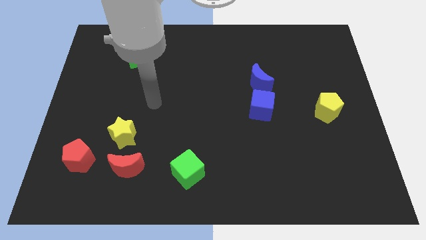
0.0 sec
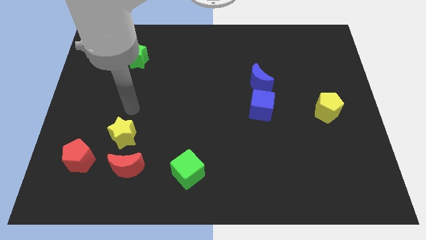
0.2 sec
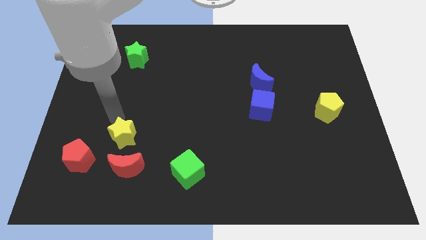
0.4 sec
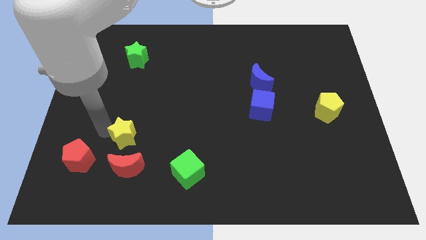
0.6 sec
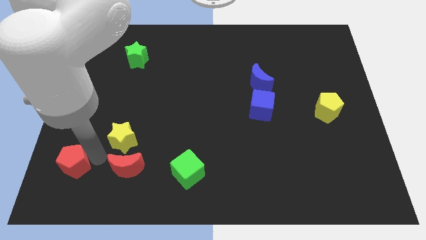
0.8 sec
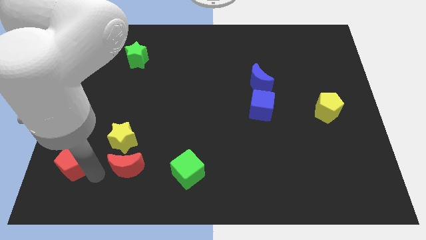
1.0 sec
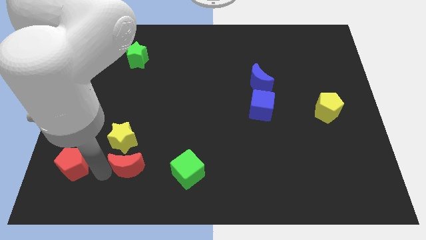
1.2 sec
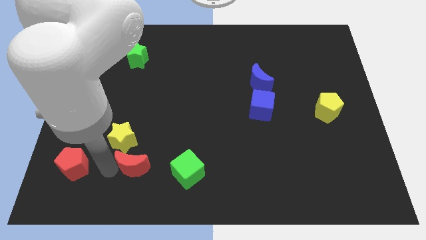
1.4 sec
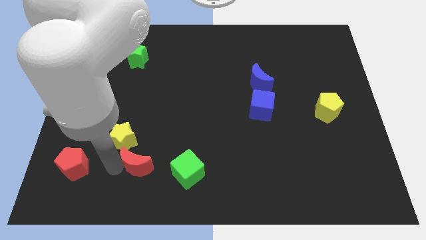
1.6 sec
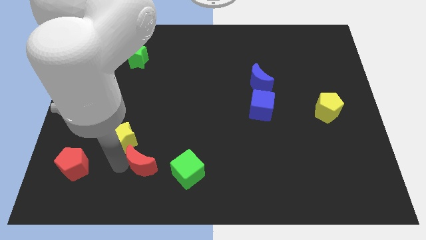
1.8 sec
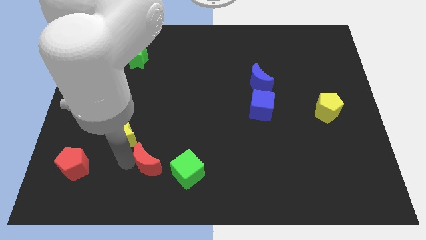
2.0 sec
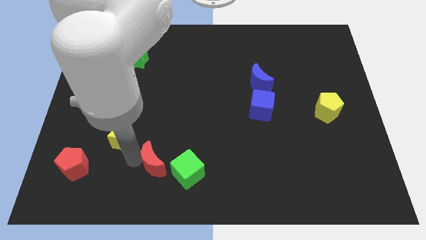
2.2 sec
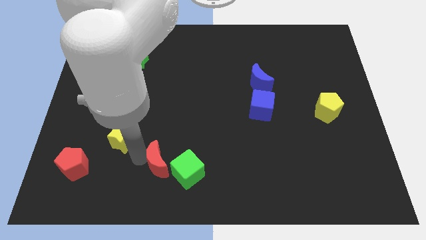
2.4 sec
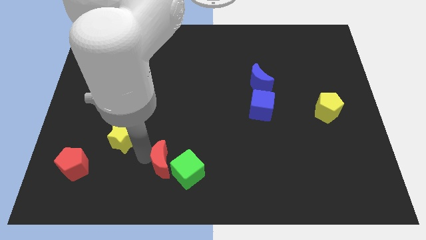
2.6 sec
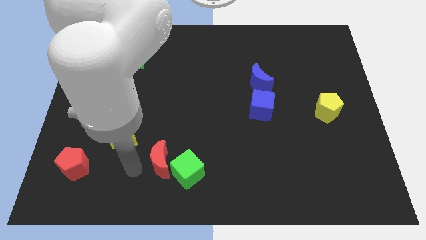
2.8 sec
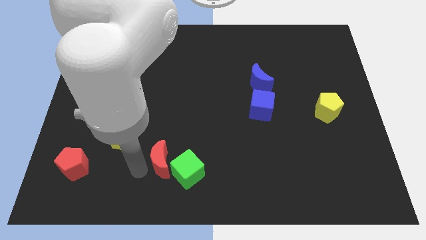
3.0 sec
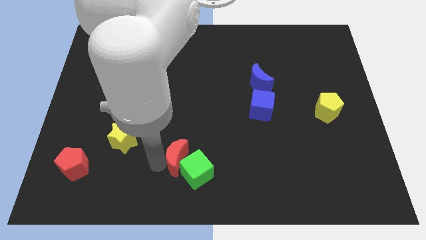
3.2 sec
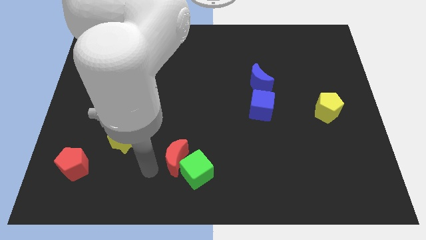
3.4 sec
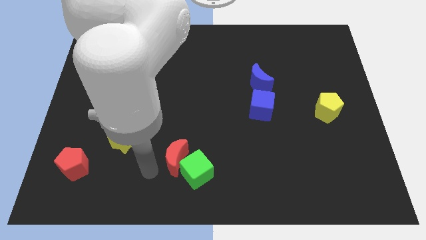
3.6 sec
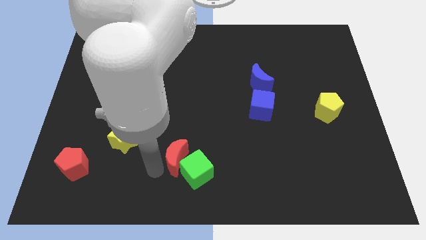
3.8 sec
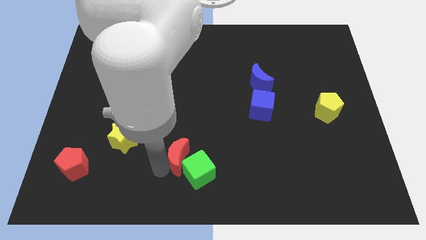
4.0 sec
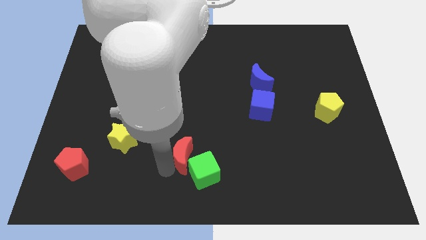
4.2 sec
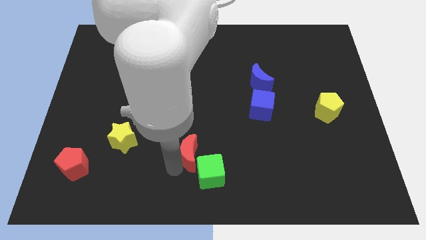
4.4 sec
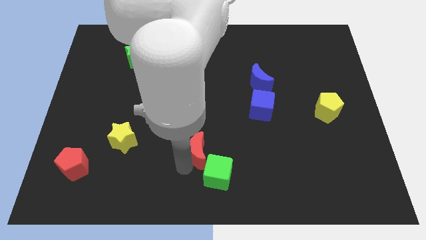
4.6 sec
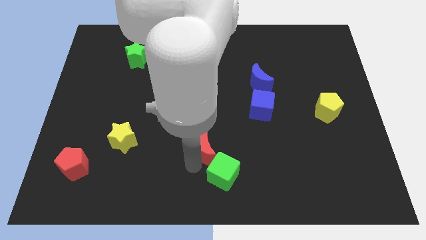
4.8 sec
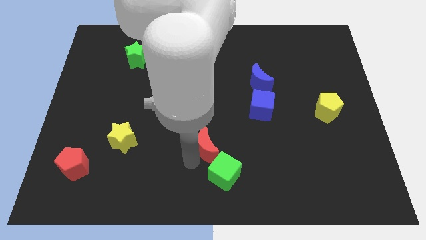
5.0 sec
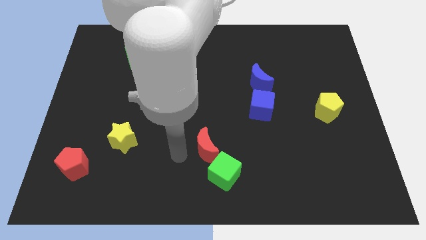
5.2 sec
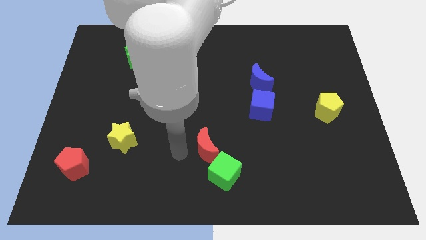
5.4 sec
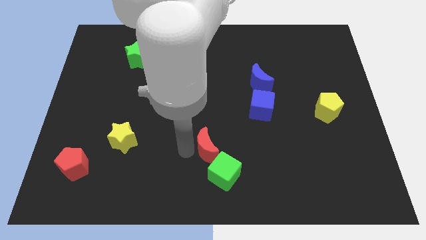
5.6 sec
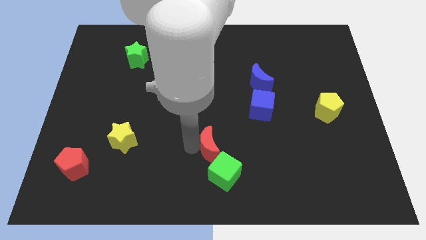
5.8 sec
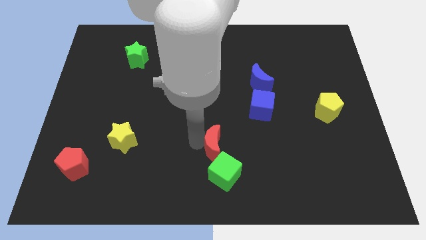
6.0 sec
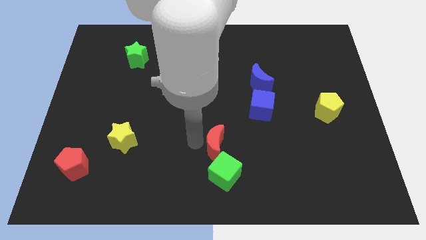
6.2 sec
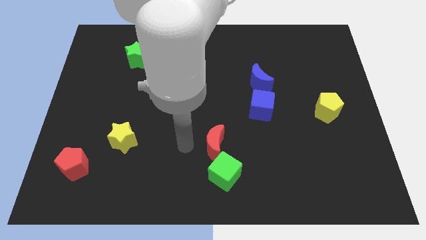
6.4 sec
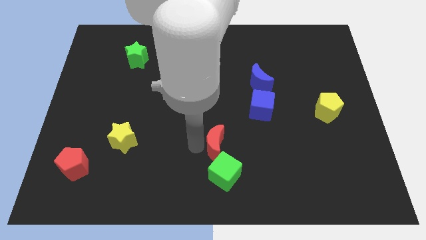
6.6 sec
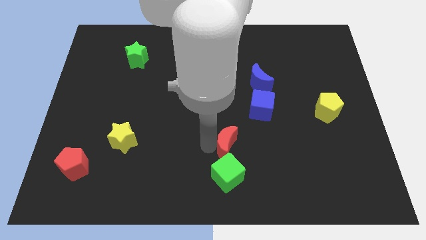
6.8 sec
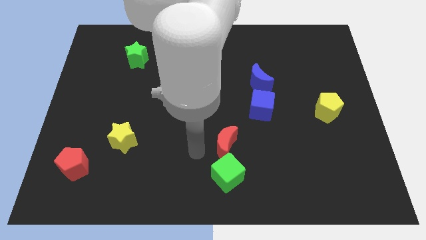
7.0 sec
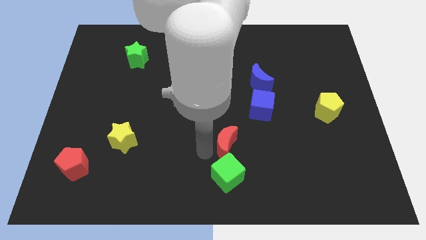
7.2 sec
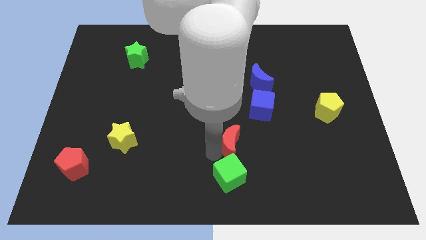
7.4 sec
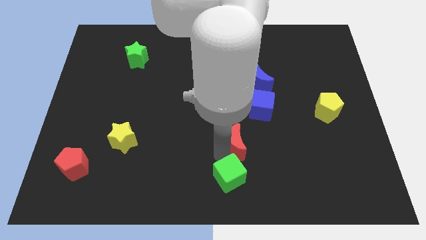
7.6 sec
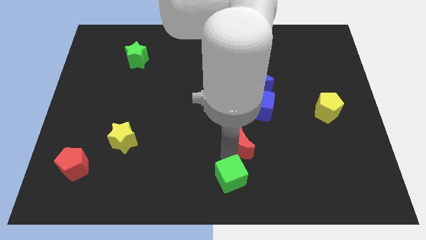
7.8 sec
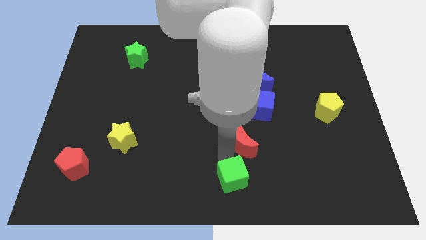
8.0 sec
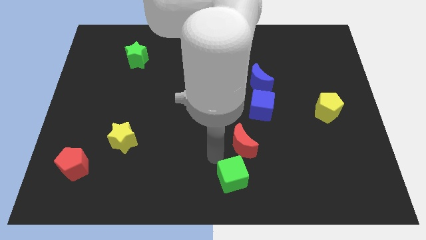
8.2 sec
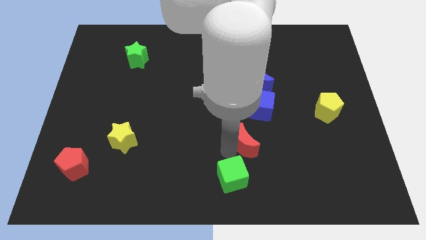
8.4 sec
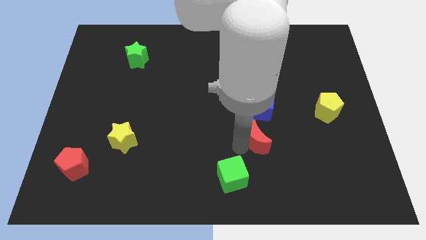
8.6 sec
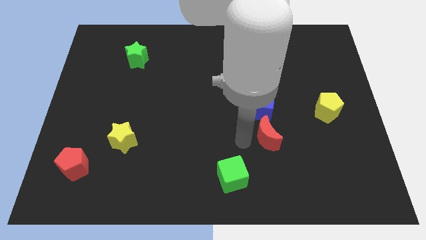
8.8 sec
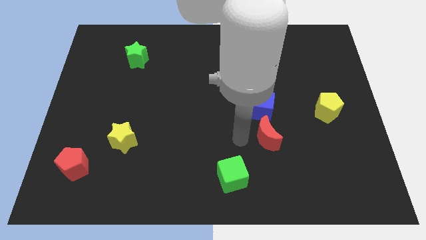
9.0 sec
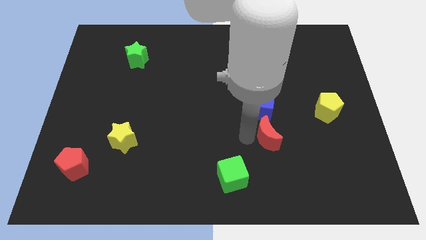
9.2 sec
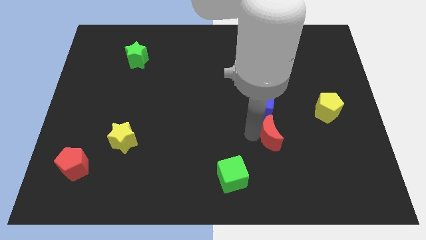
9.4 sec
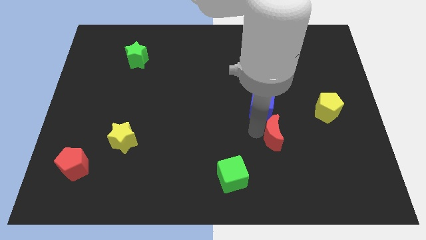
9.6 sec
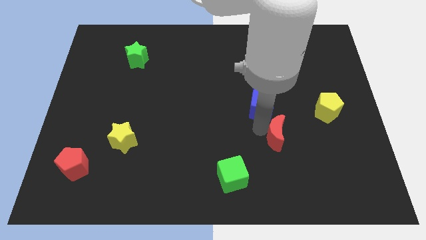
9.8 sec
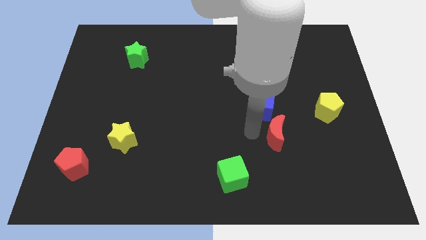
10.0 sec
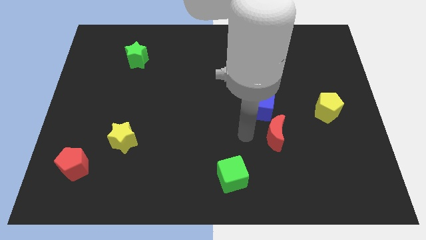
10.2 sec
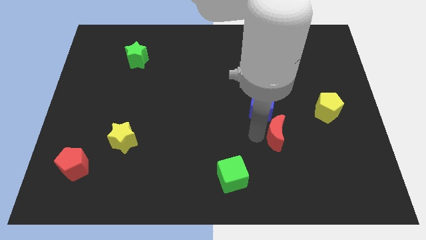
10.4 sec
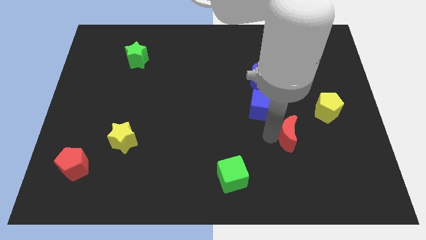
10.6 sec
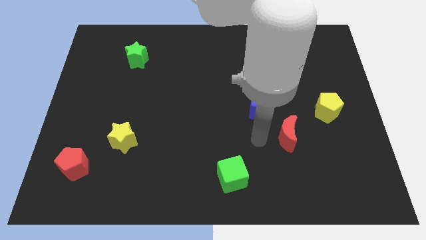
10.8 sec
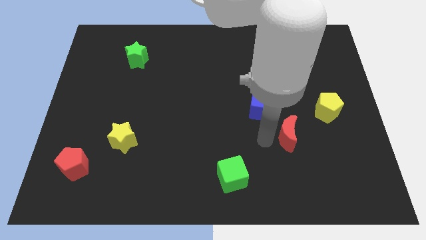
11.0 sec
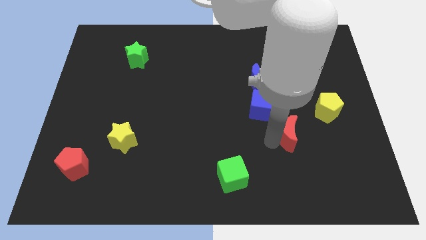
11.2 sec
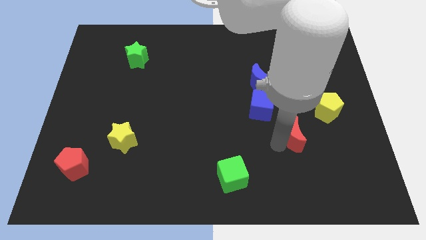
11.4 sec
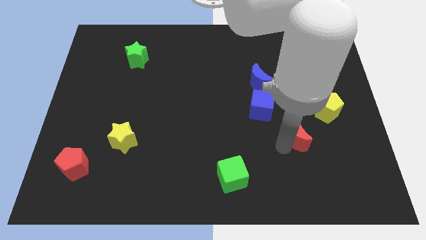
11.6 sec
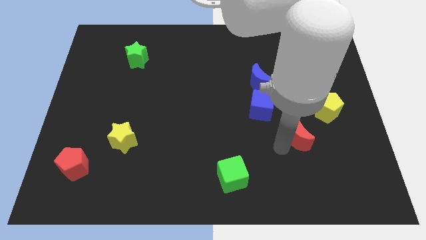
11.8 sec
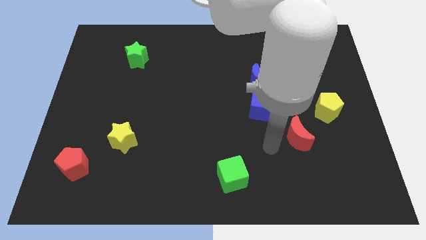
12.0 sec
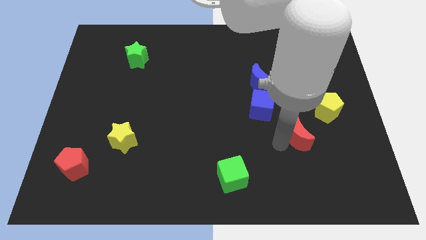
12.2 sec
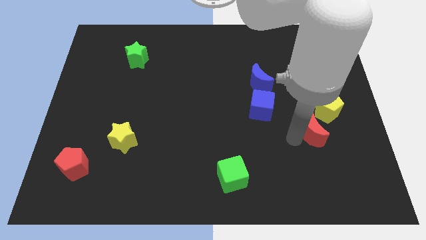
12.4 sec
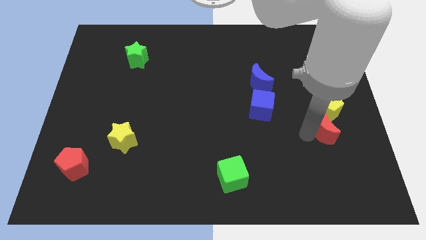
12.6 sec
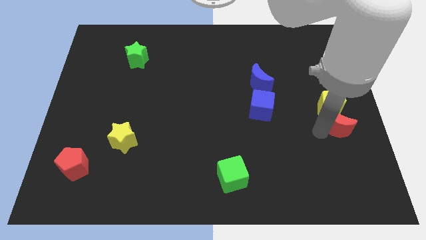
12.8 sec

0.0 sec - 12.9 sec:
push the red moon to the right side
